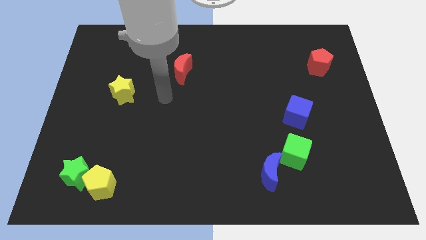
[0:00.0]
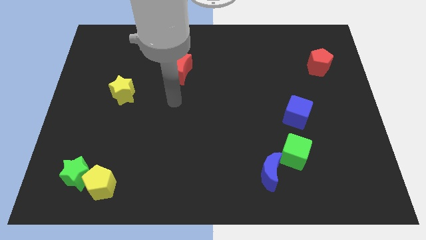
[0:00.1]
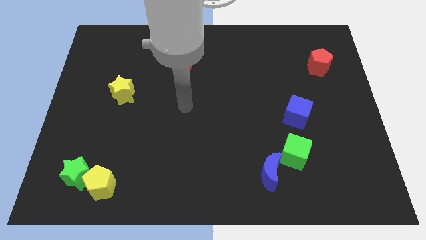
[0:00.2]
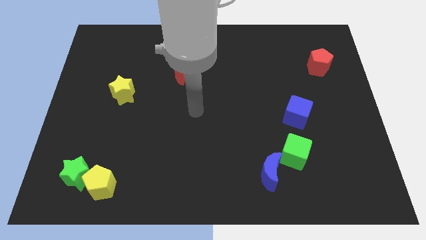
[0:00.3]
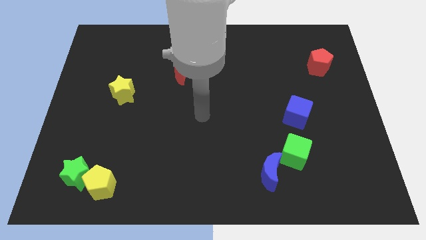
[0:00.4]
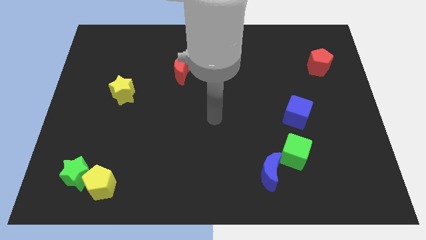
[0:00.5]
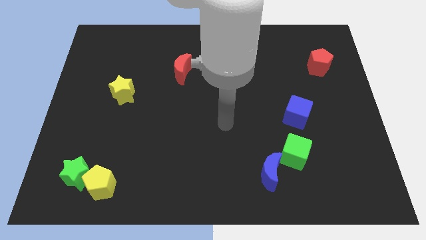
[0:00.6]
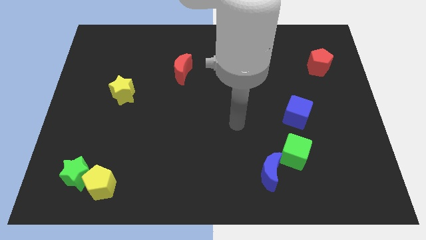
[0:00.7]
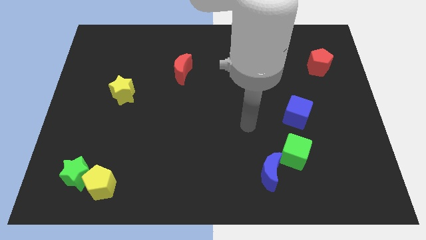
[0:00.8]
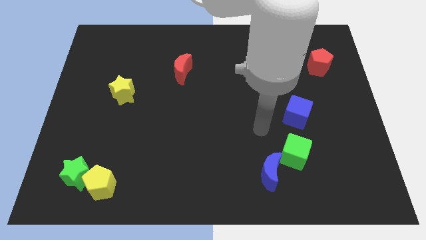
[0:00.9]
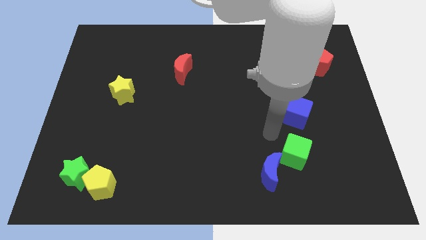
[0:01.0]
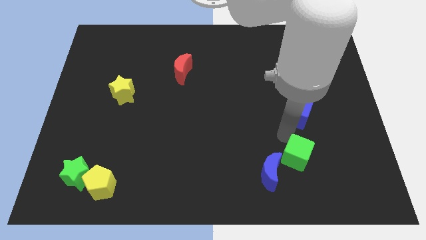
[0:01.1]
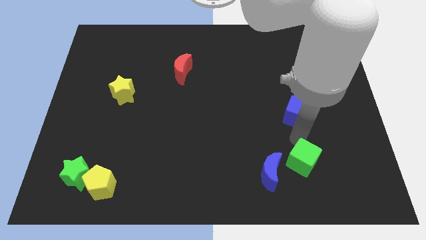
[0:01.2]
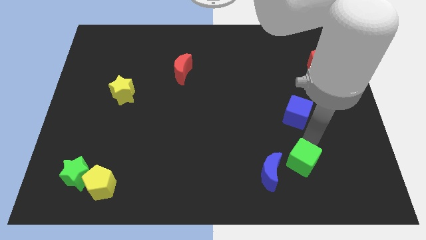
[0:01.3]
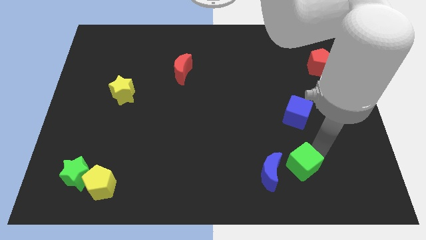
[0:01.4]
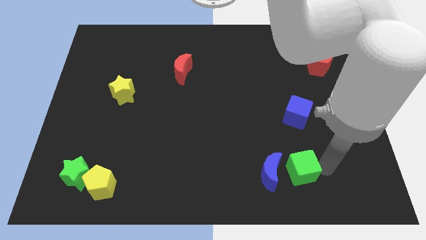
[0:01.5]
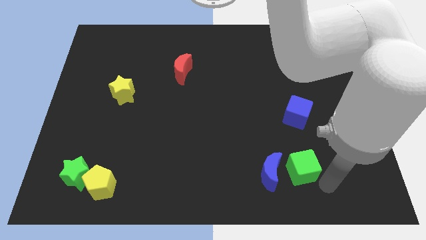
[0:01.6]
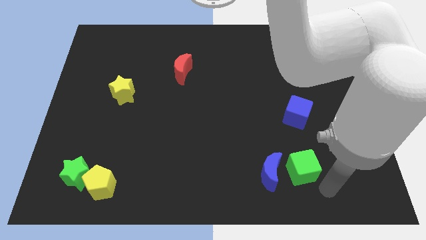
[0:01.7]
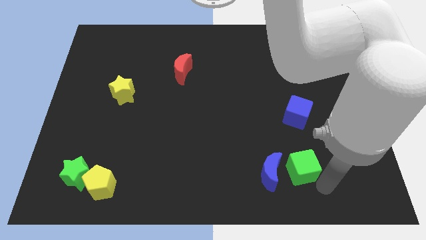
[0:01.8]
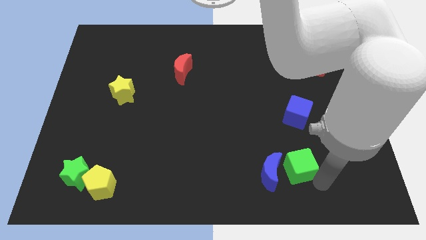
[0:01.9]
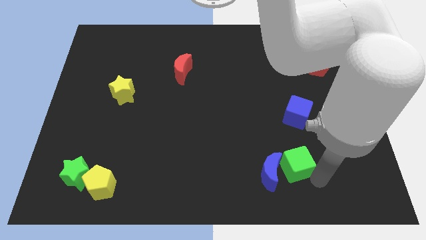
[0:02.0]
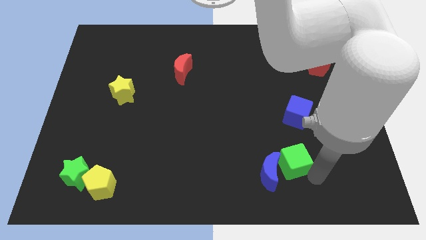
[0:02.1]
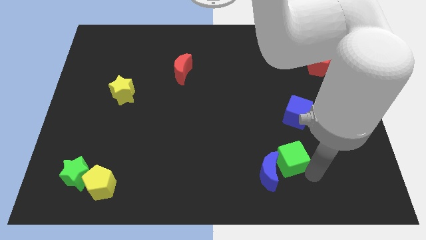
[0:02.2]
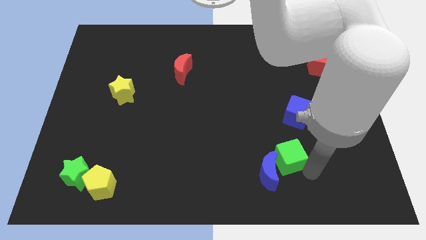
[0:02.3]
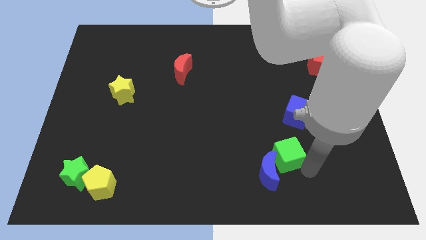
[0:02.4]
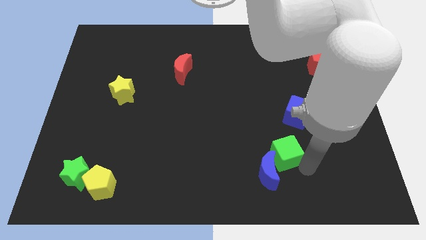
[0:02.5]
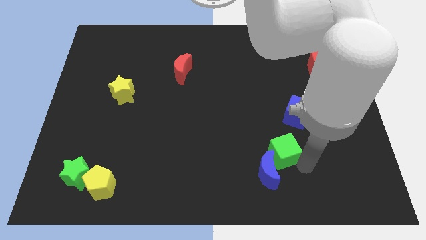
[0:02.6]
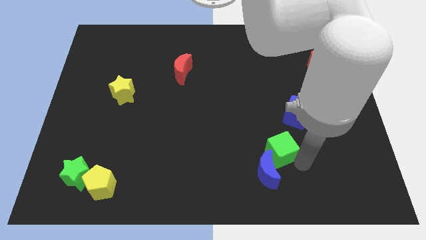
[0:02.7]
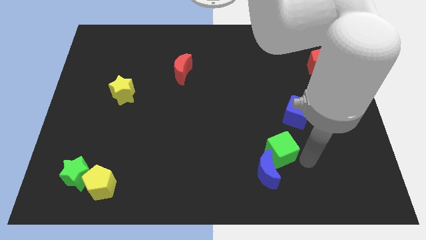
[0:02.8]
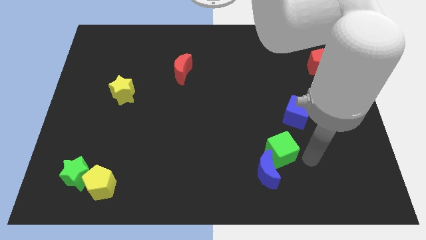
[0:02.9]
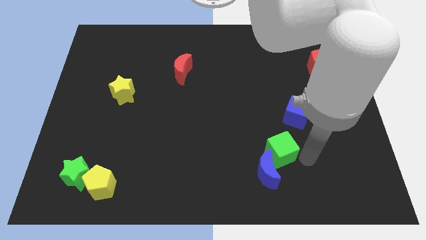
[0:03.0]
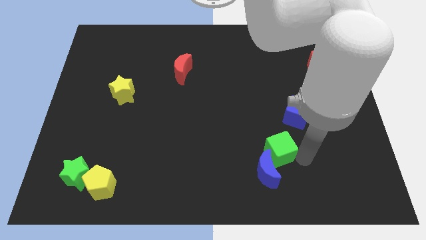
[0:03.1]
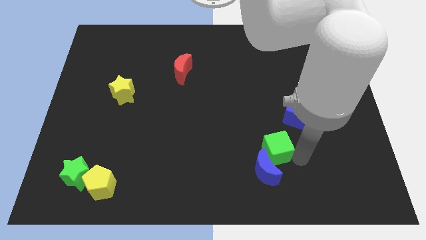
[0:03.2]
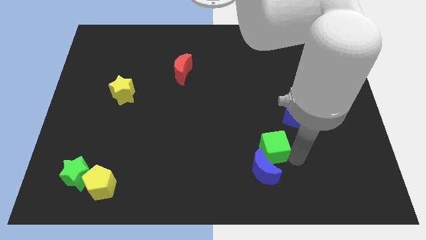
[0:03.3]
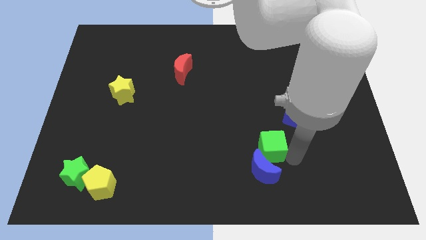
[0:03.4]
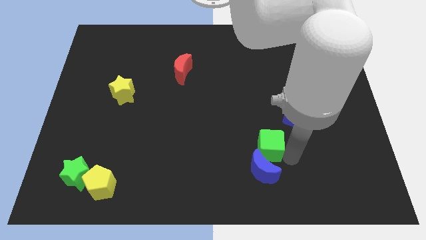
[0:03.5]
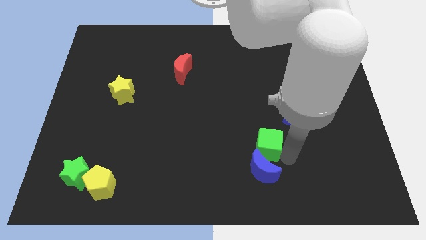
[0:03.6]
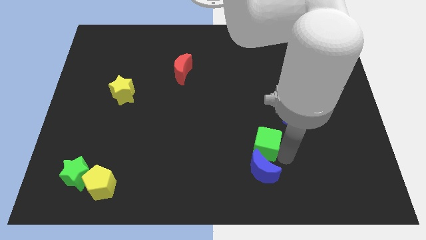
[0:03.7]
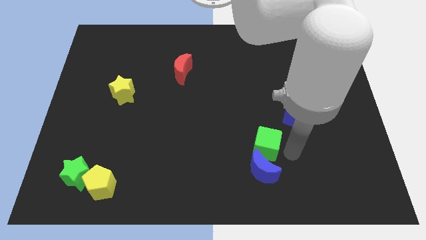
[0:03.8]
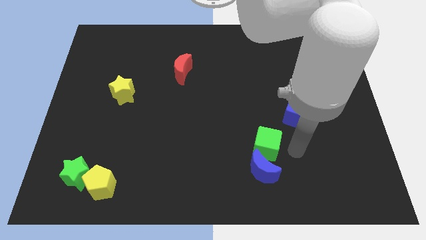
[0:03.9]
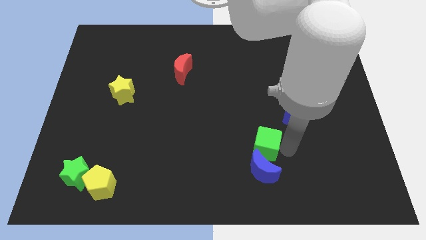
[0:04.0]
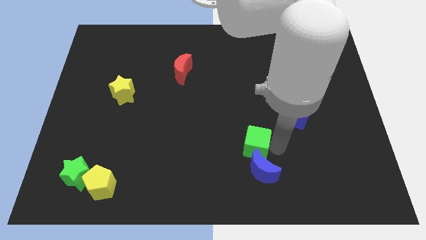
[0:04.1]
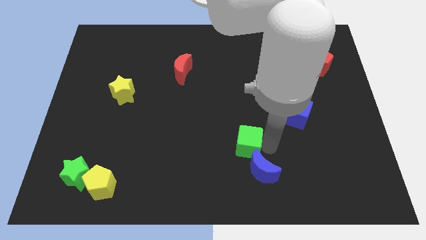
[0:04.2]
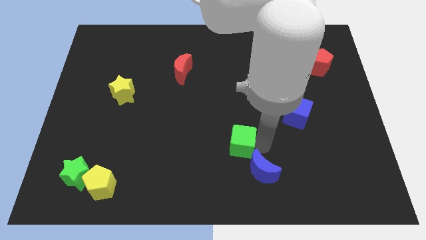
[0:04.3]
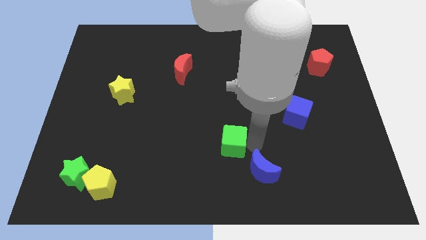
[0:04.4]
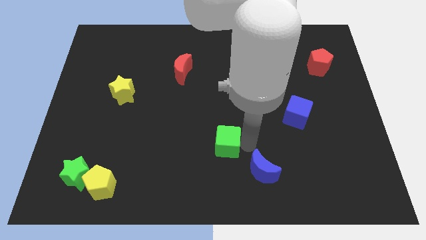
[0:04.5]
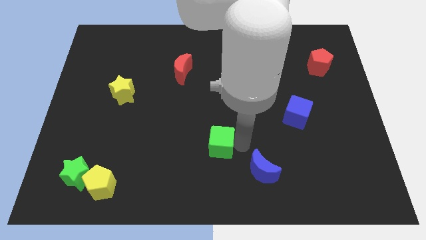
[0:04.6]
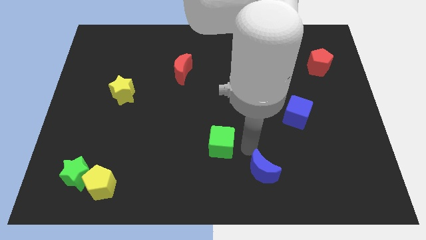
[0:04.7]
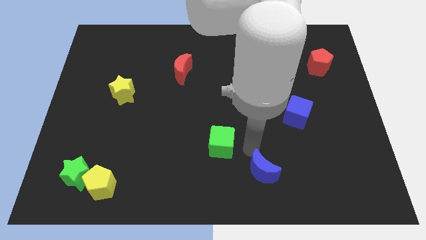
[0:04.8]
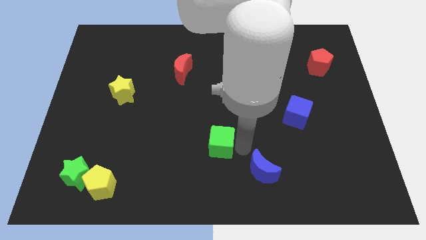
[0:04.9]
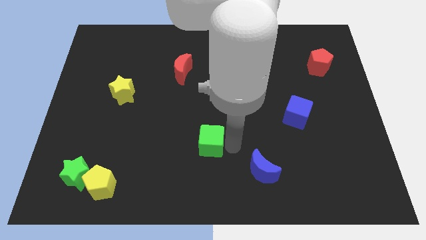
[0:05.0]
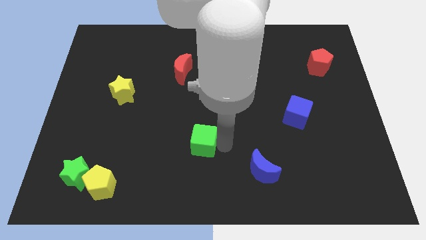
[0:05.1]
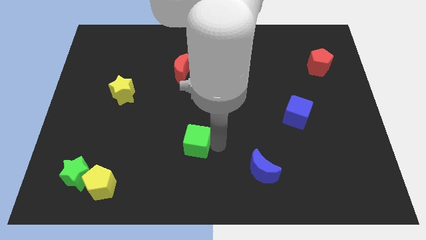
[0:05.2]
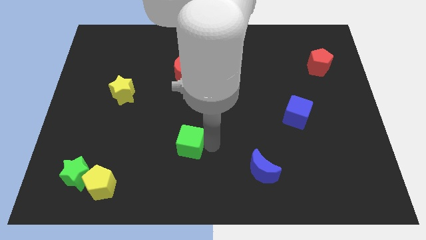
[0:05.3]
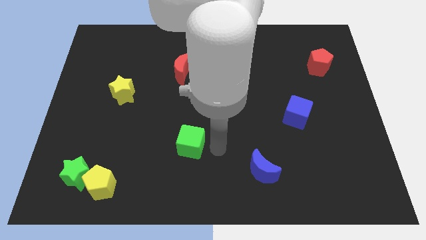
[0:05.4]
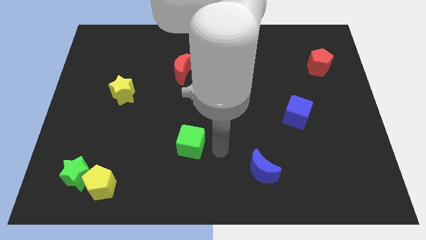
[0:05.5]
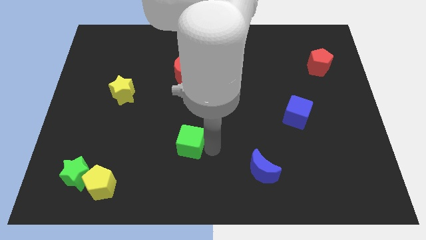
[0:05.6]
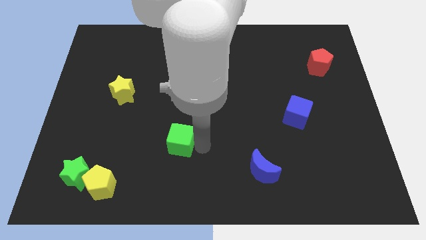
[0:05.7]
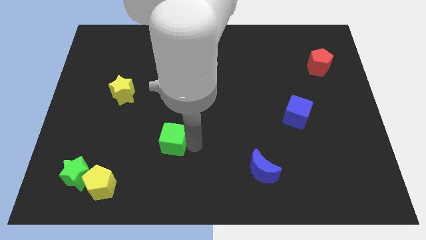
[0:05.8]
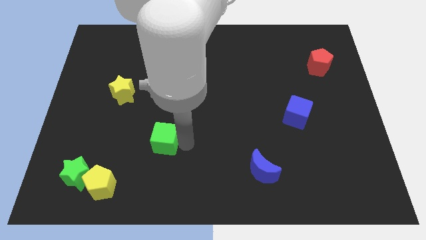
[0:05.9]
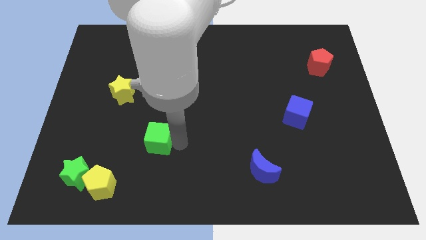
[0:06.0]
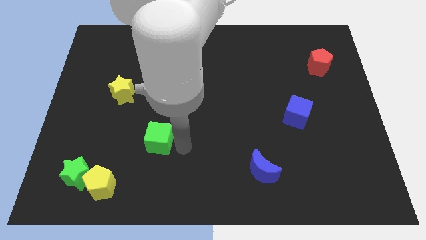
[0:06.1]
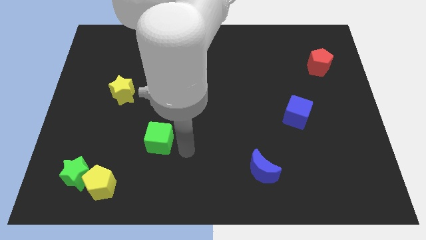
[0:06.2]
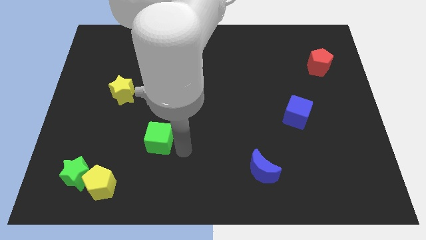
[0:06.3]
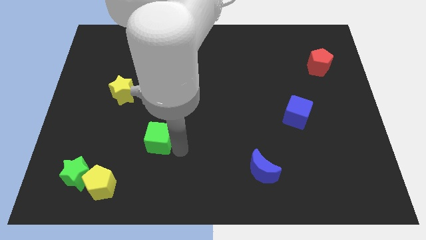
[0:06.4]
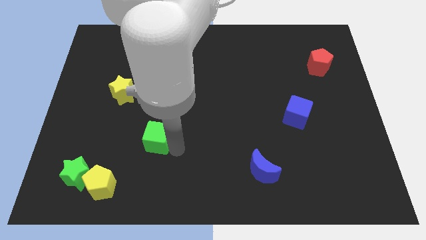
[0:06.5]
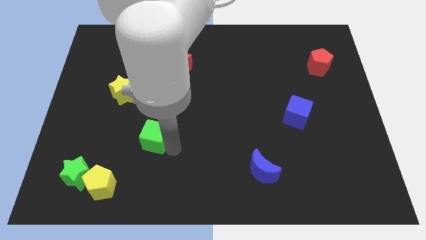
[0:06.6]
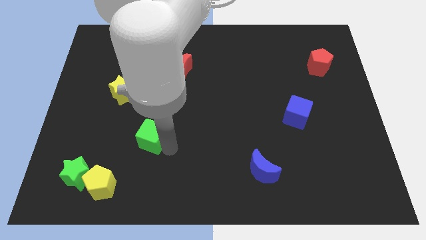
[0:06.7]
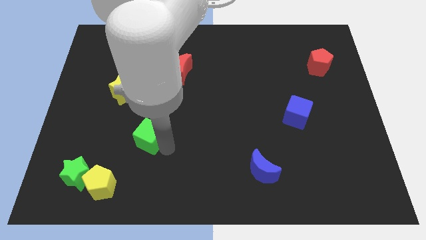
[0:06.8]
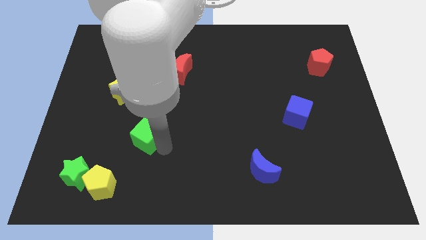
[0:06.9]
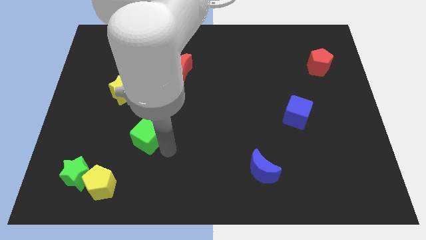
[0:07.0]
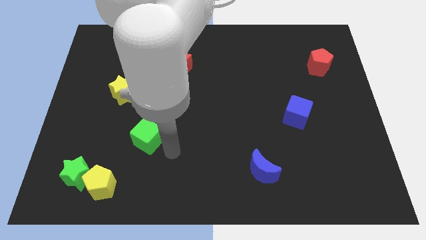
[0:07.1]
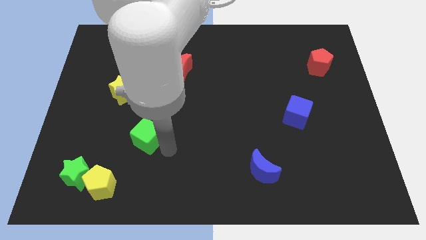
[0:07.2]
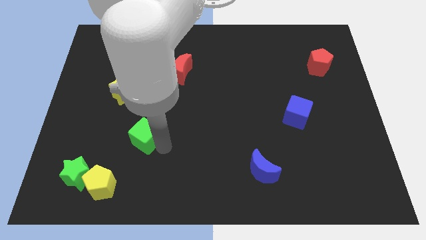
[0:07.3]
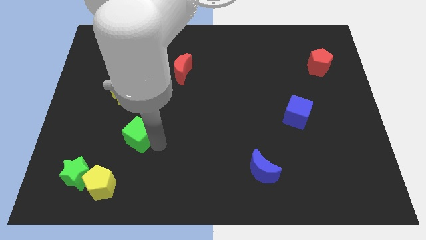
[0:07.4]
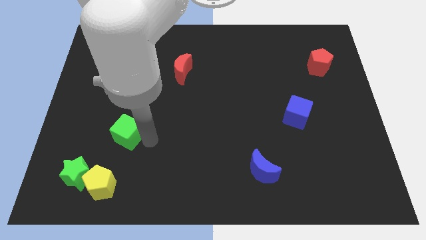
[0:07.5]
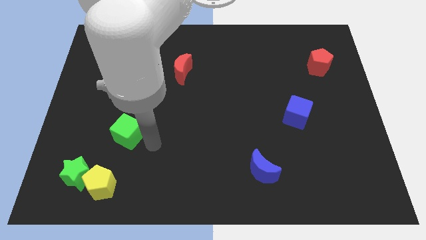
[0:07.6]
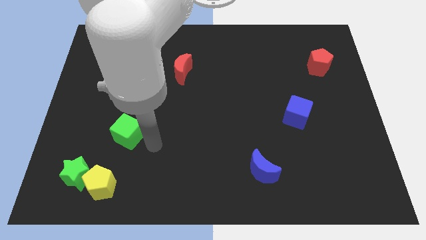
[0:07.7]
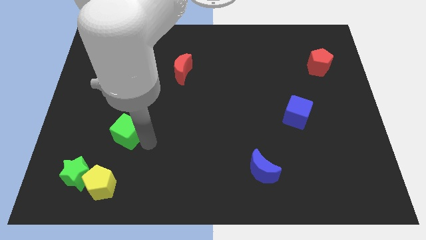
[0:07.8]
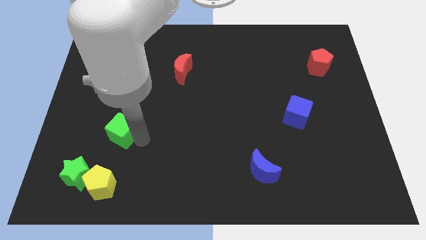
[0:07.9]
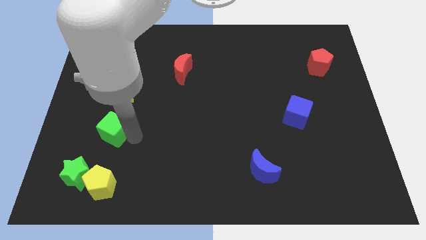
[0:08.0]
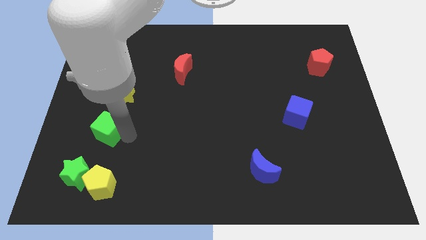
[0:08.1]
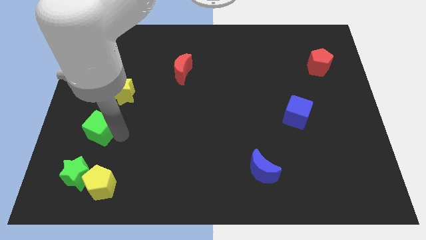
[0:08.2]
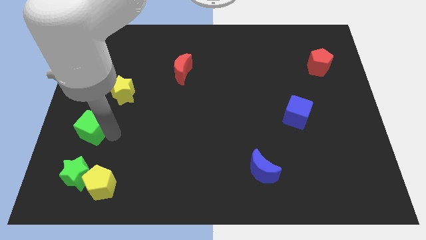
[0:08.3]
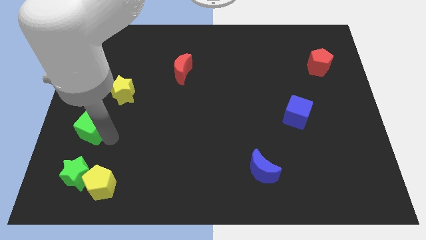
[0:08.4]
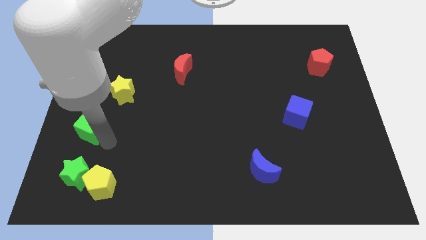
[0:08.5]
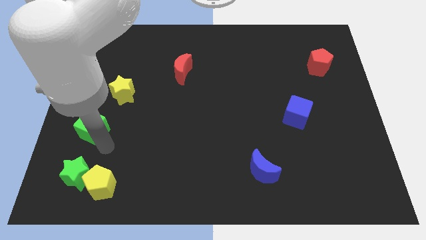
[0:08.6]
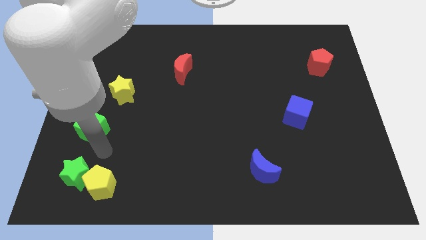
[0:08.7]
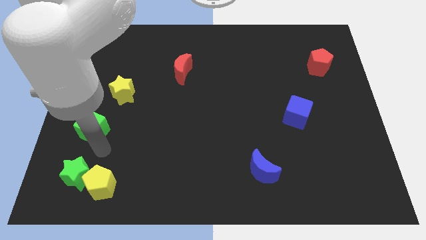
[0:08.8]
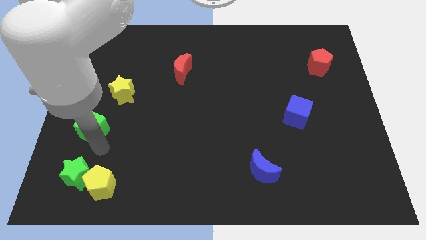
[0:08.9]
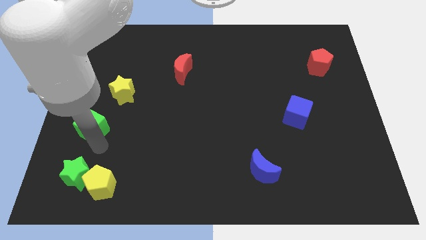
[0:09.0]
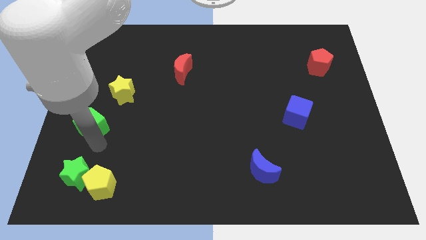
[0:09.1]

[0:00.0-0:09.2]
move the green cube to the left side of the board
